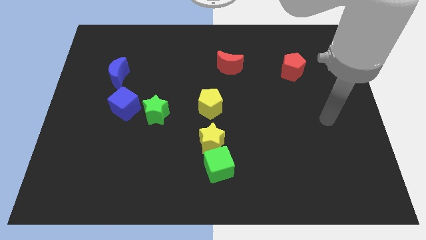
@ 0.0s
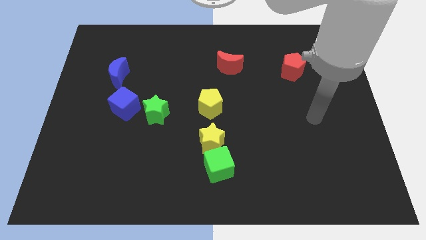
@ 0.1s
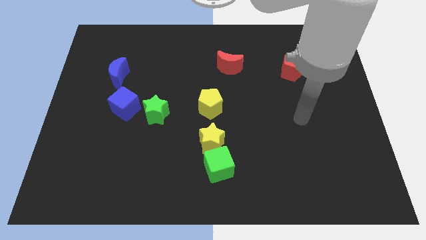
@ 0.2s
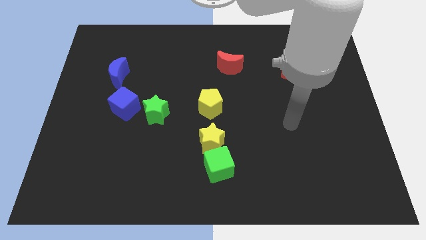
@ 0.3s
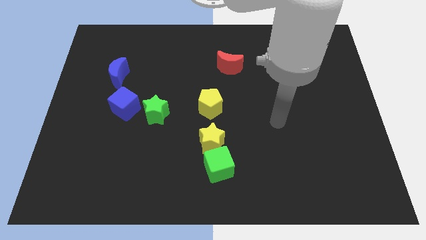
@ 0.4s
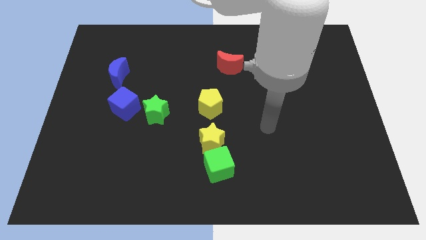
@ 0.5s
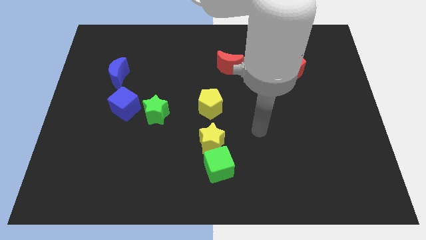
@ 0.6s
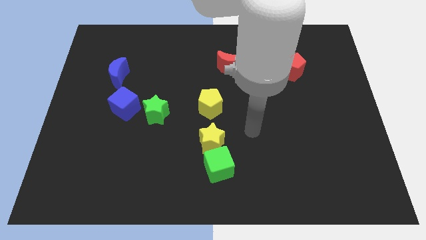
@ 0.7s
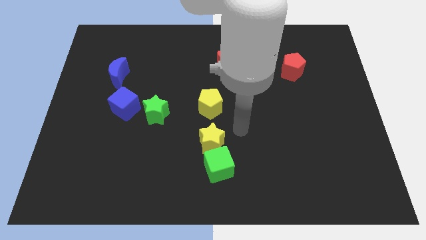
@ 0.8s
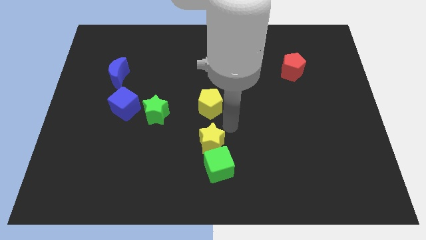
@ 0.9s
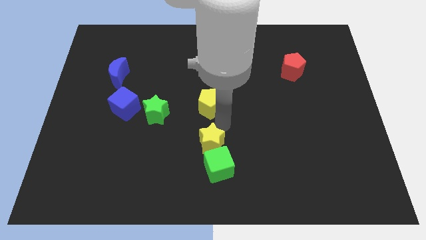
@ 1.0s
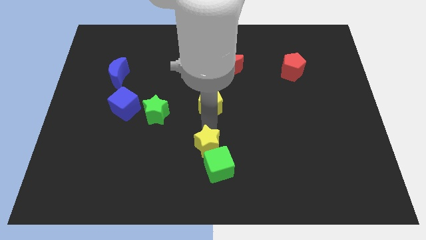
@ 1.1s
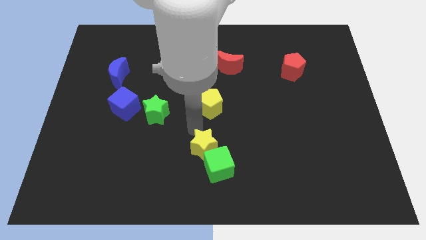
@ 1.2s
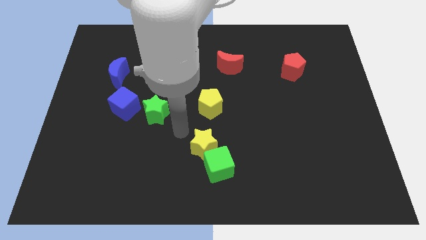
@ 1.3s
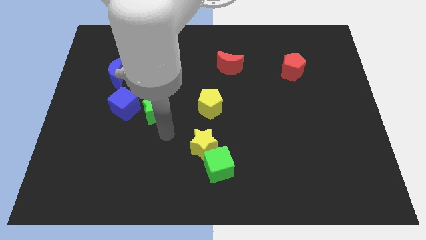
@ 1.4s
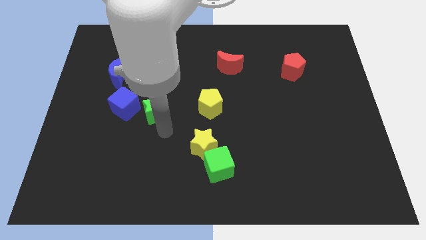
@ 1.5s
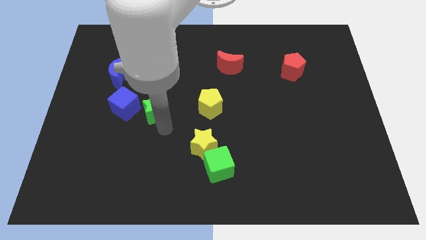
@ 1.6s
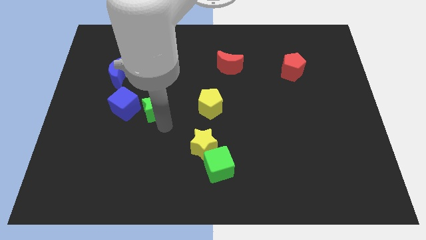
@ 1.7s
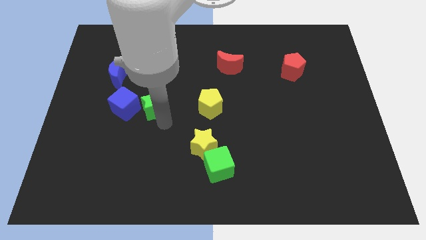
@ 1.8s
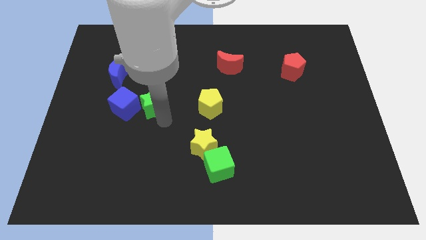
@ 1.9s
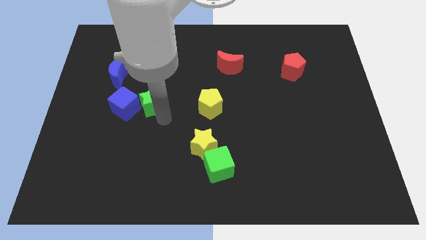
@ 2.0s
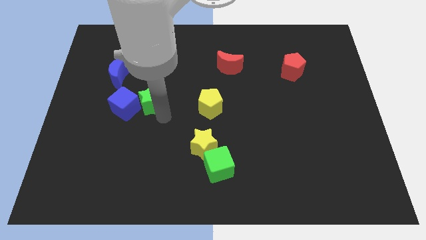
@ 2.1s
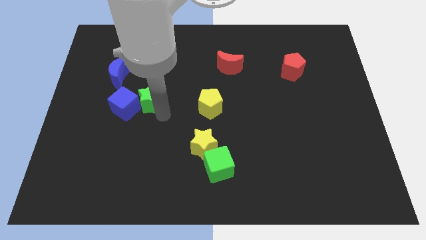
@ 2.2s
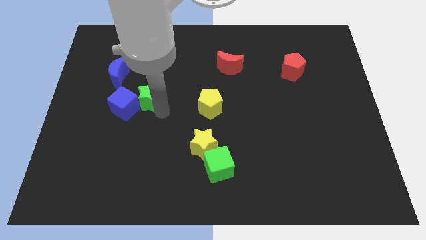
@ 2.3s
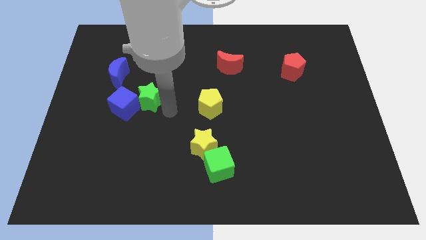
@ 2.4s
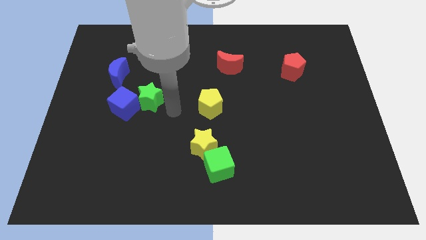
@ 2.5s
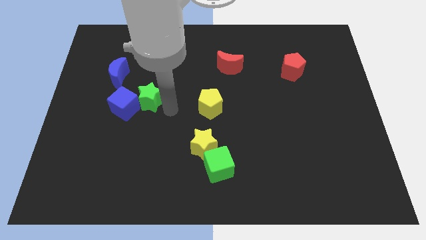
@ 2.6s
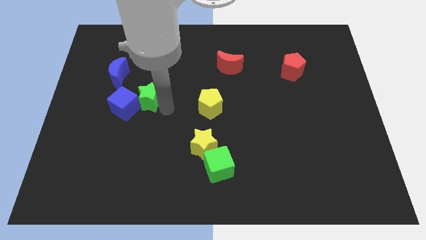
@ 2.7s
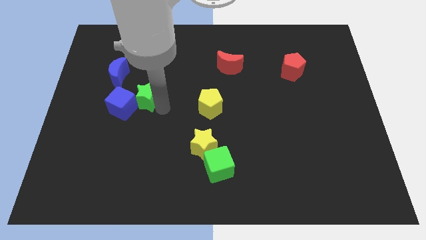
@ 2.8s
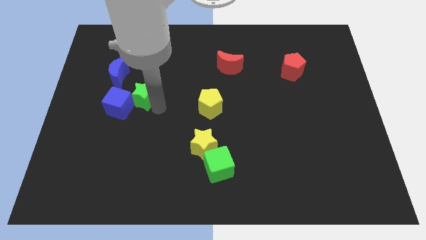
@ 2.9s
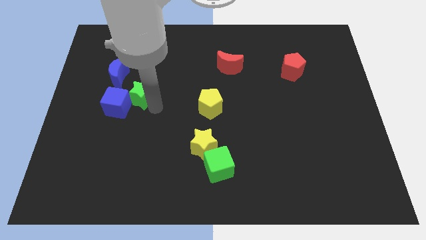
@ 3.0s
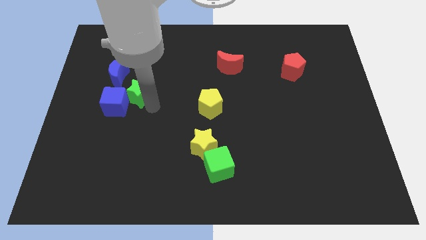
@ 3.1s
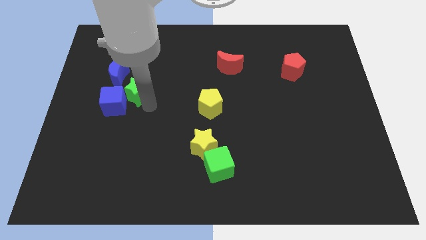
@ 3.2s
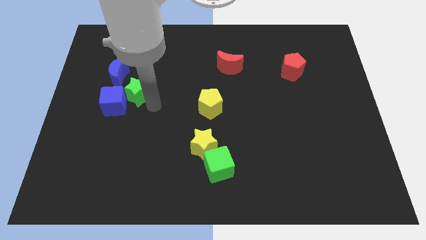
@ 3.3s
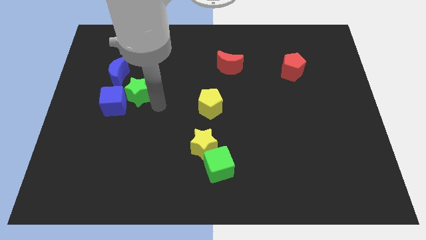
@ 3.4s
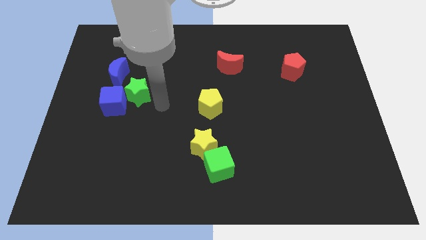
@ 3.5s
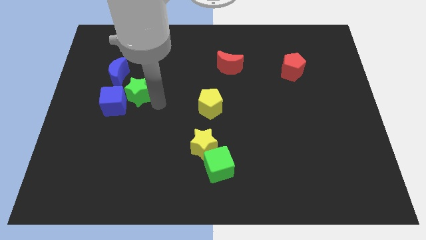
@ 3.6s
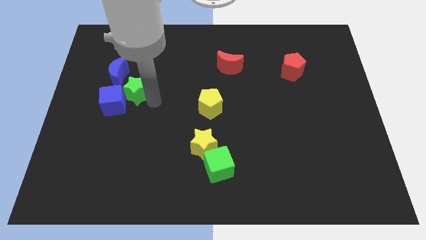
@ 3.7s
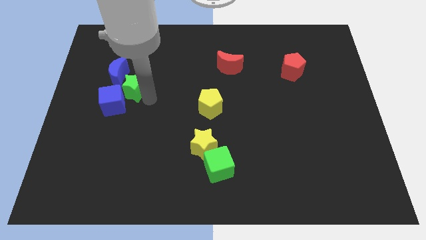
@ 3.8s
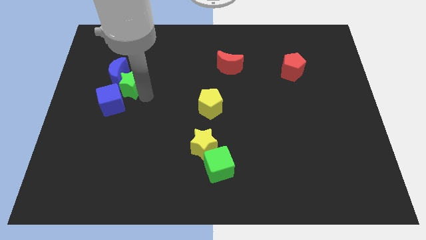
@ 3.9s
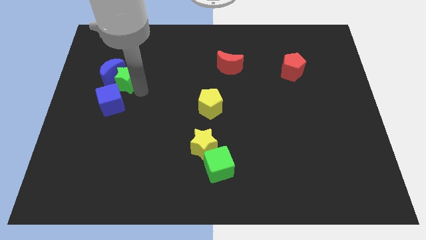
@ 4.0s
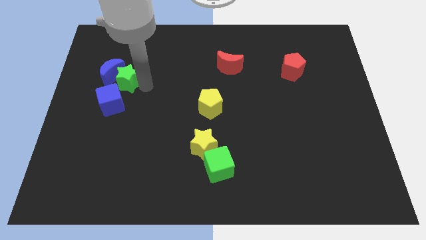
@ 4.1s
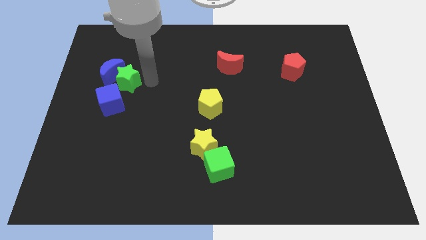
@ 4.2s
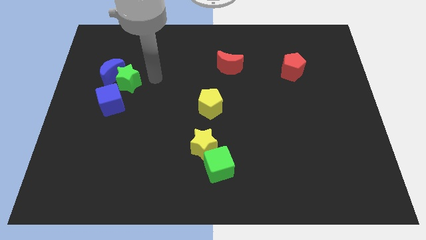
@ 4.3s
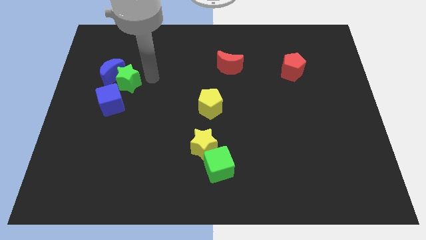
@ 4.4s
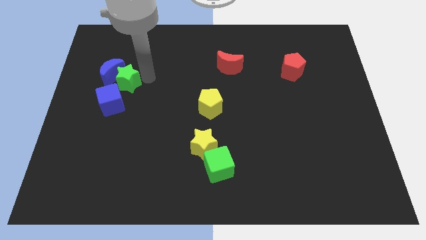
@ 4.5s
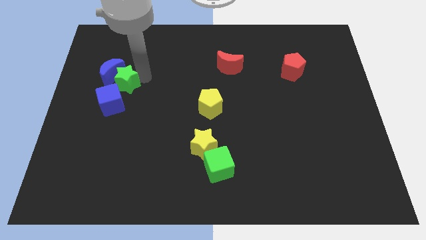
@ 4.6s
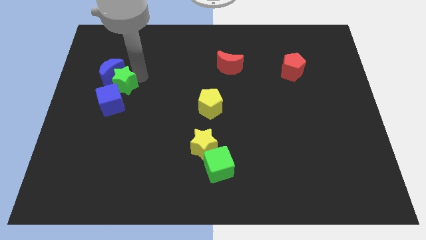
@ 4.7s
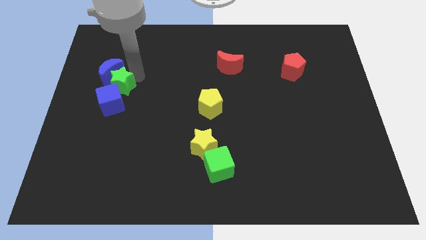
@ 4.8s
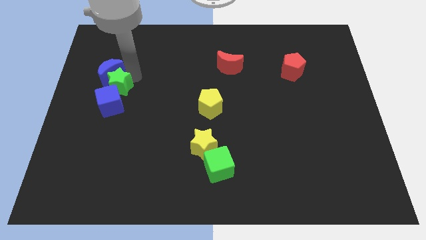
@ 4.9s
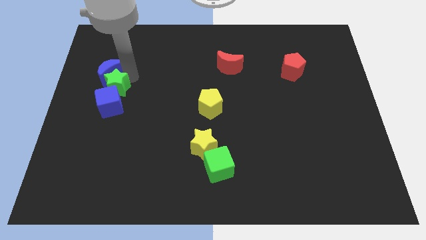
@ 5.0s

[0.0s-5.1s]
put the green star diagonally up and to the left of the blue cube

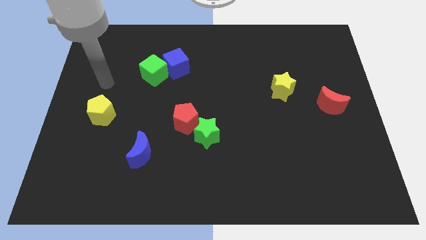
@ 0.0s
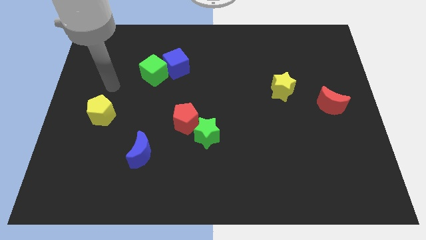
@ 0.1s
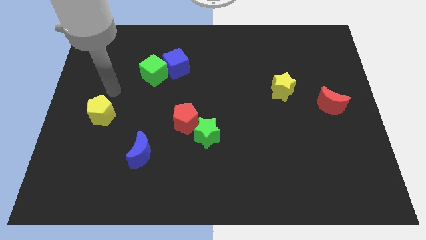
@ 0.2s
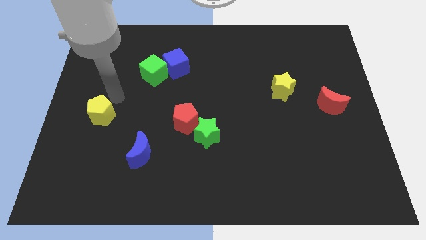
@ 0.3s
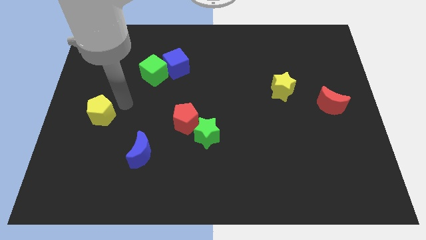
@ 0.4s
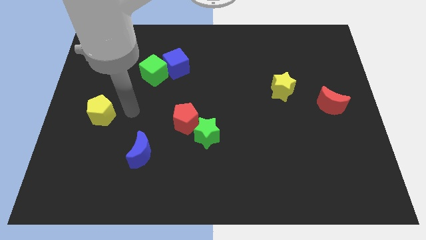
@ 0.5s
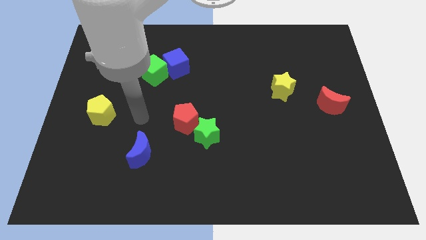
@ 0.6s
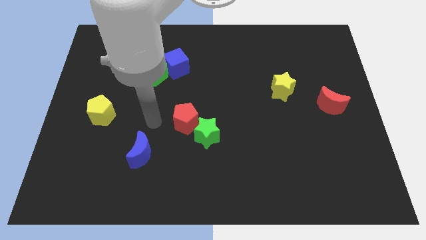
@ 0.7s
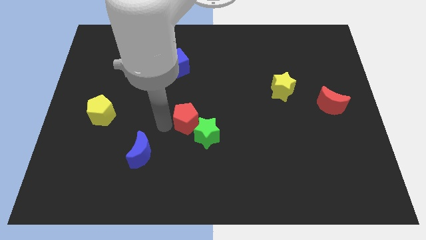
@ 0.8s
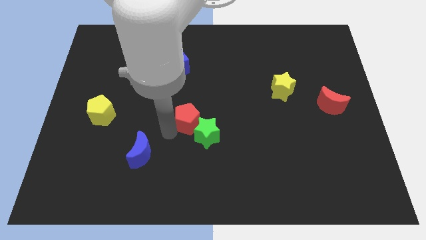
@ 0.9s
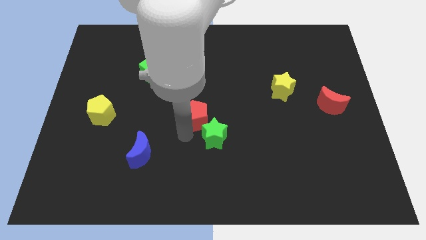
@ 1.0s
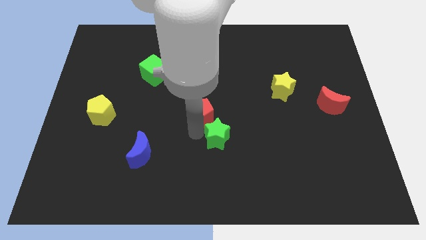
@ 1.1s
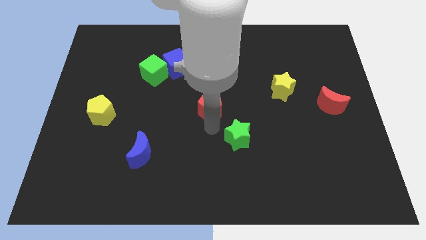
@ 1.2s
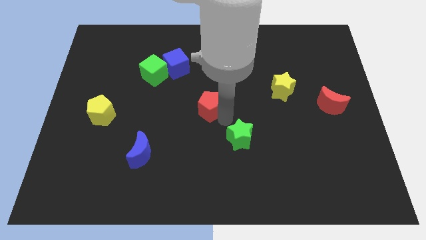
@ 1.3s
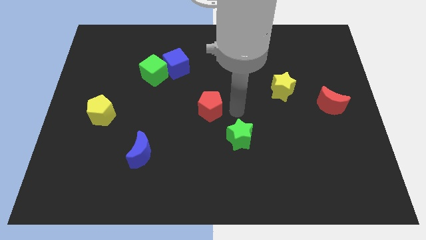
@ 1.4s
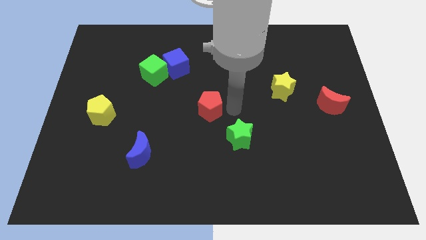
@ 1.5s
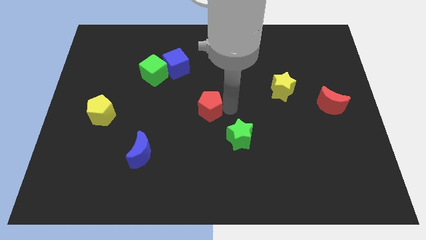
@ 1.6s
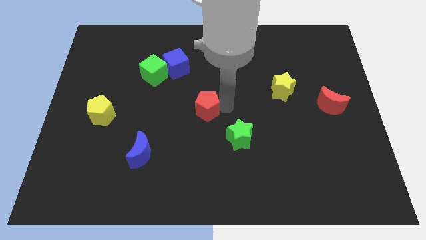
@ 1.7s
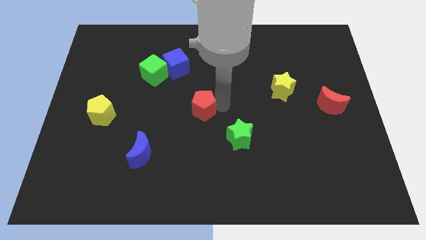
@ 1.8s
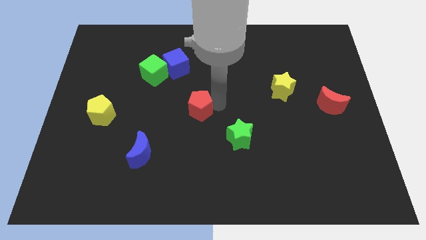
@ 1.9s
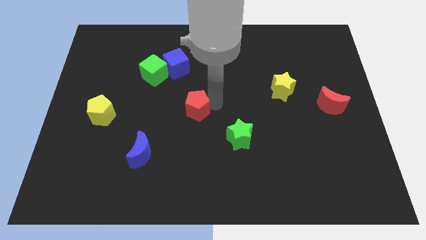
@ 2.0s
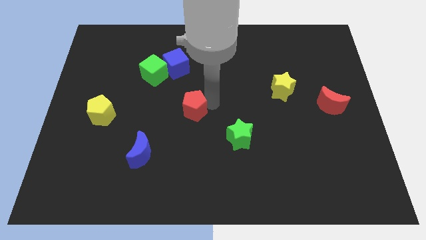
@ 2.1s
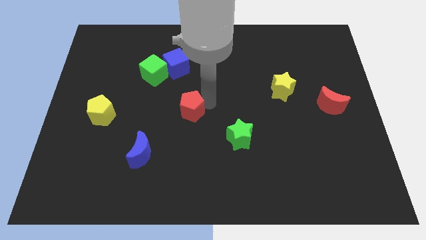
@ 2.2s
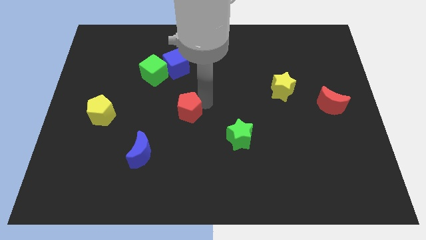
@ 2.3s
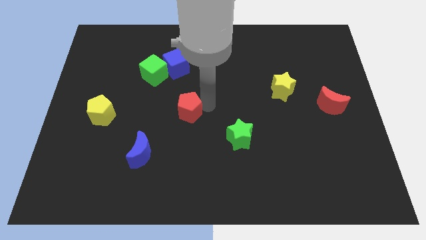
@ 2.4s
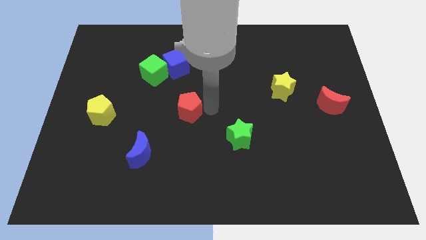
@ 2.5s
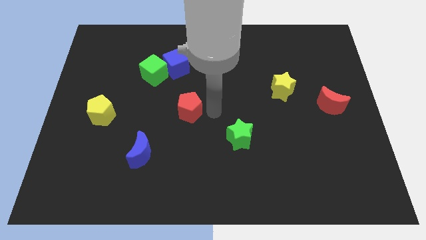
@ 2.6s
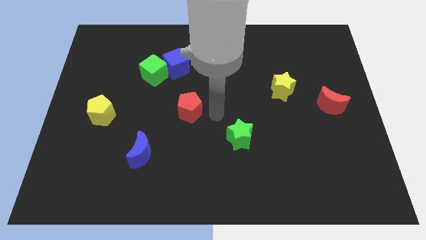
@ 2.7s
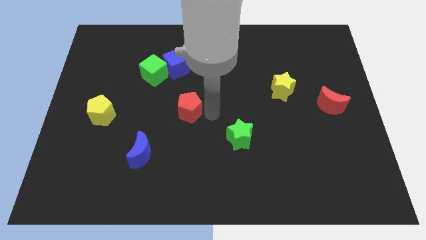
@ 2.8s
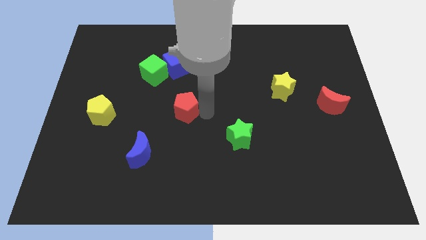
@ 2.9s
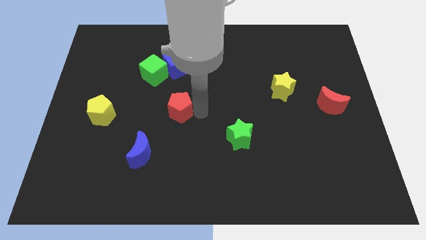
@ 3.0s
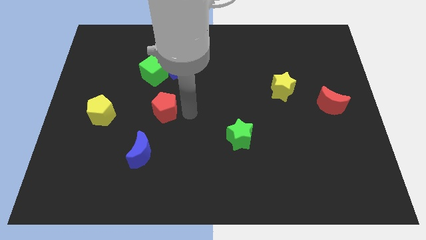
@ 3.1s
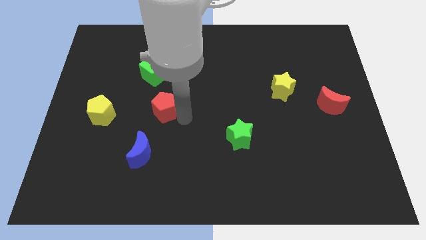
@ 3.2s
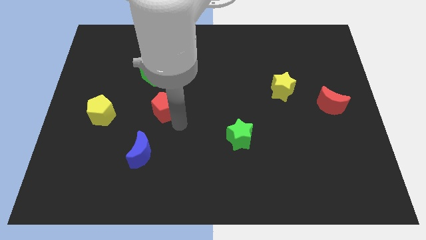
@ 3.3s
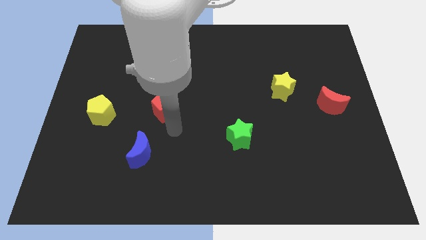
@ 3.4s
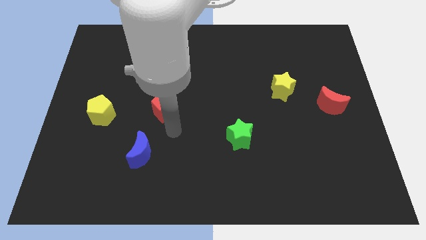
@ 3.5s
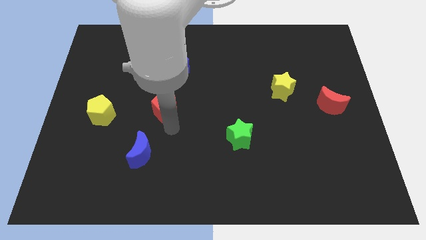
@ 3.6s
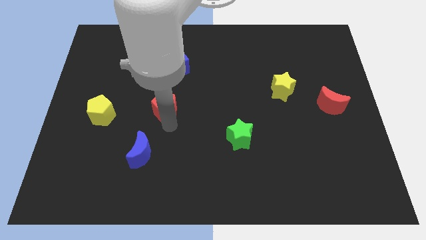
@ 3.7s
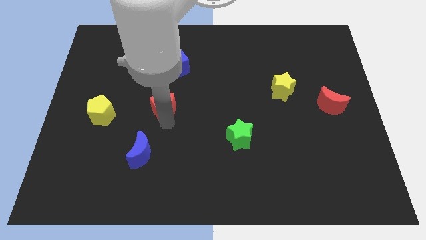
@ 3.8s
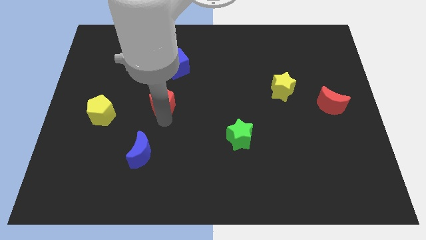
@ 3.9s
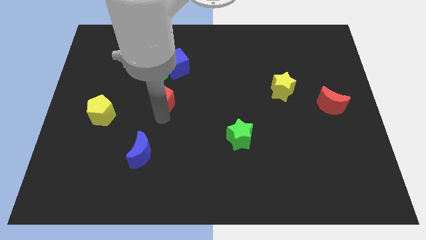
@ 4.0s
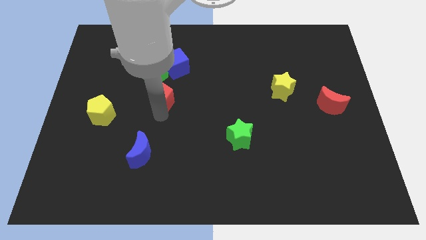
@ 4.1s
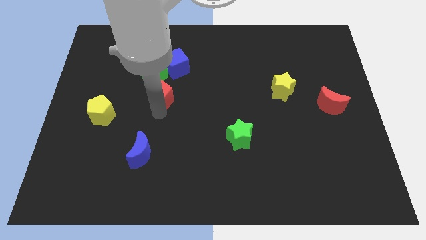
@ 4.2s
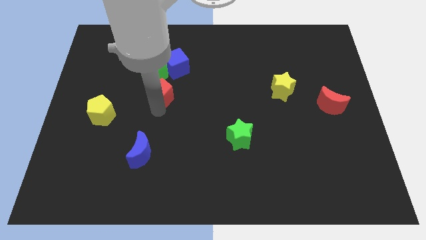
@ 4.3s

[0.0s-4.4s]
push the red pentagon to the bottom left of the blue cube
